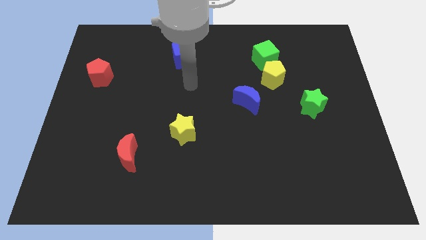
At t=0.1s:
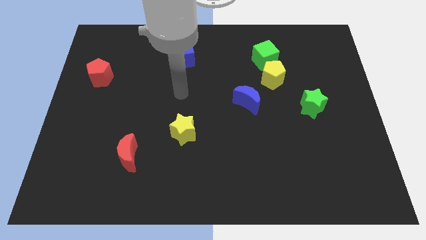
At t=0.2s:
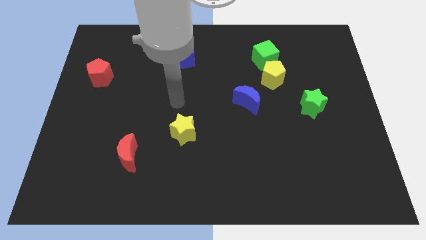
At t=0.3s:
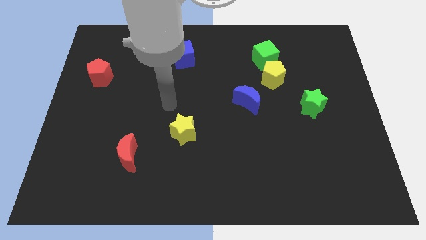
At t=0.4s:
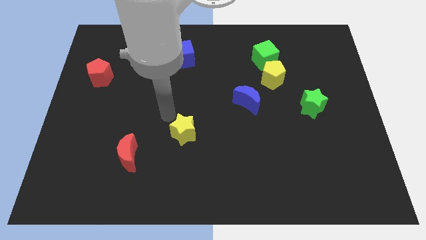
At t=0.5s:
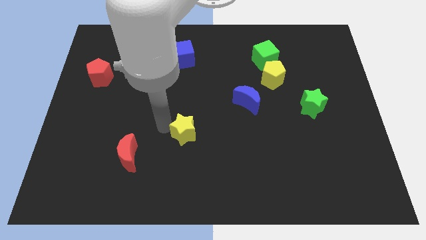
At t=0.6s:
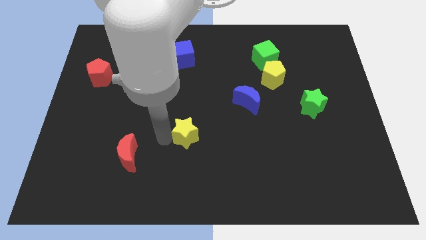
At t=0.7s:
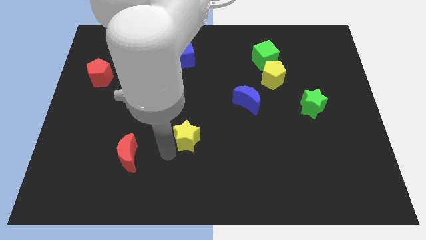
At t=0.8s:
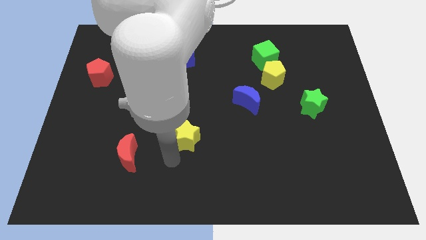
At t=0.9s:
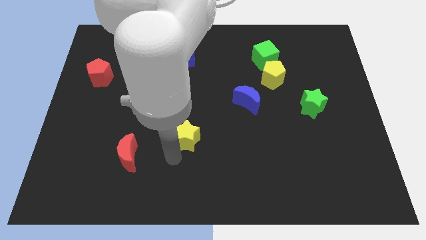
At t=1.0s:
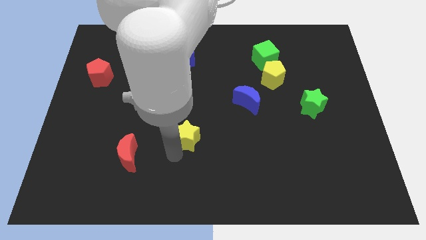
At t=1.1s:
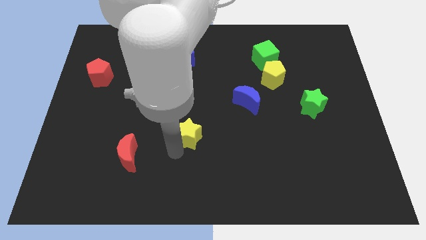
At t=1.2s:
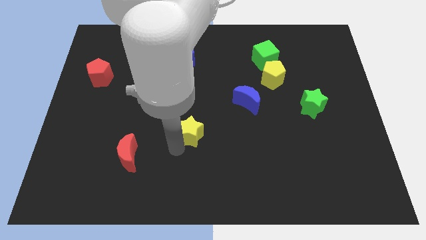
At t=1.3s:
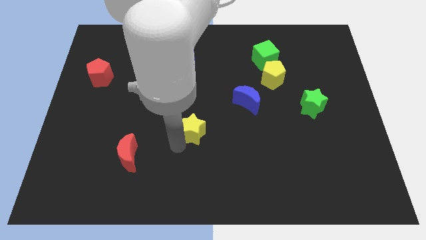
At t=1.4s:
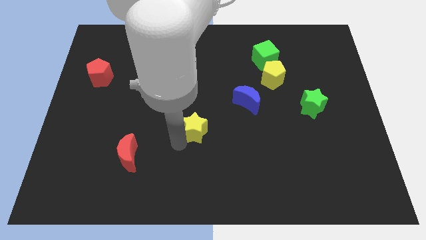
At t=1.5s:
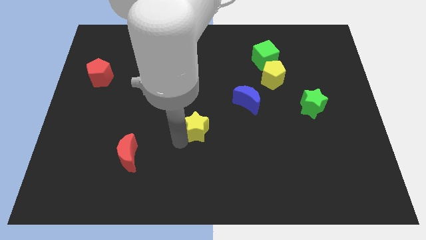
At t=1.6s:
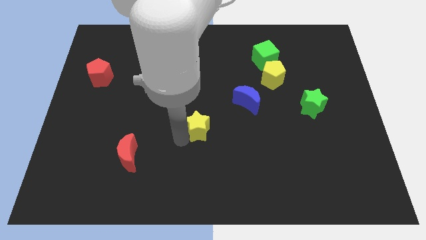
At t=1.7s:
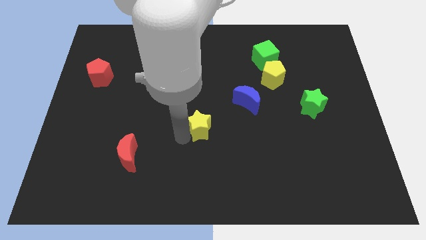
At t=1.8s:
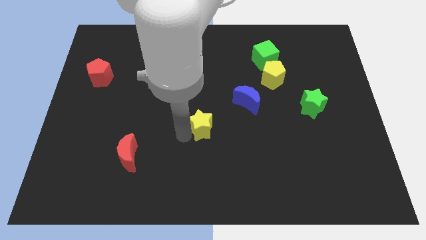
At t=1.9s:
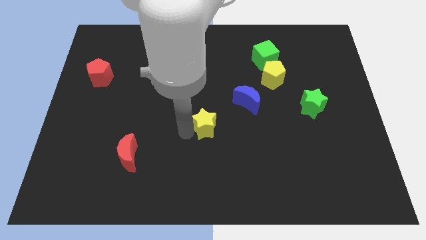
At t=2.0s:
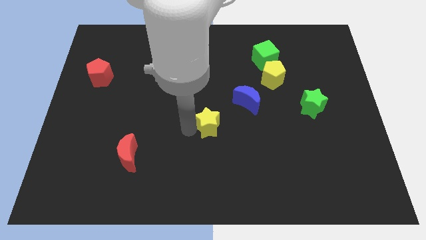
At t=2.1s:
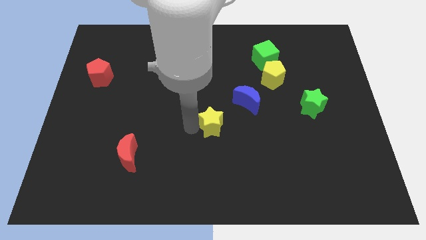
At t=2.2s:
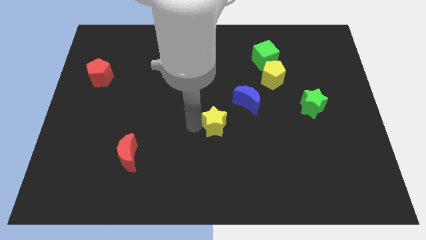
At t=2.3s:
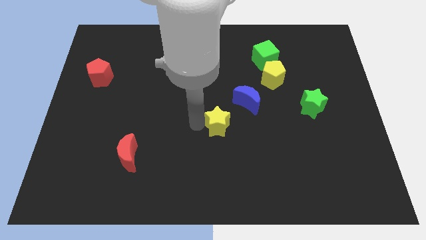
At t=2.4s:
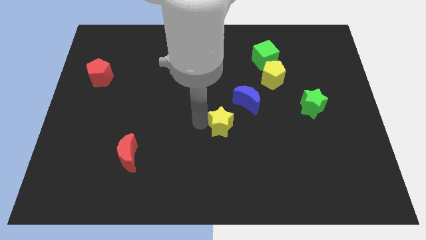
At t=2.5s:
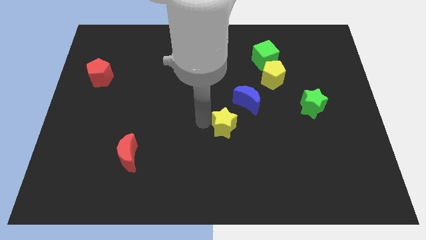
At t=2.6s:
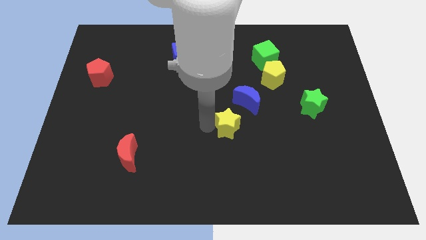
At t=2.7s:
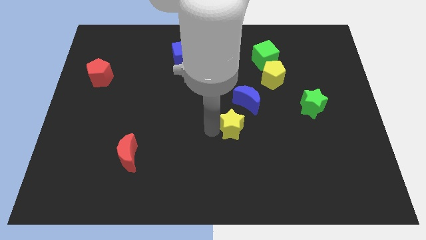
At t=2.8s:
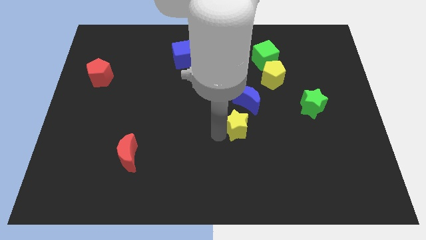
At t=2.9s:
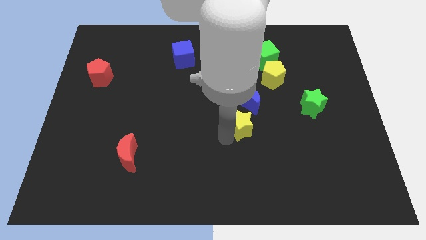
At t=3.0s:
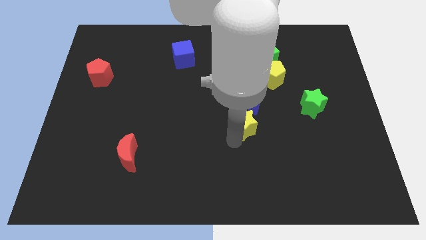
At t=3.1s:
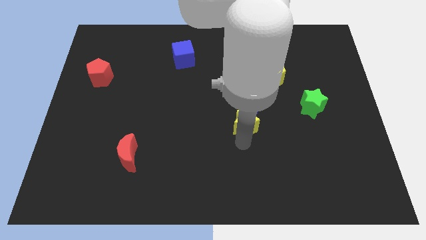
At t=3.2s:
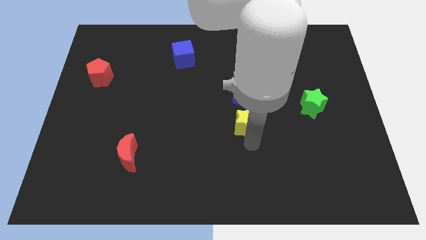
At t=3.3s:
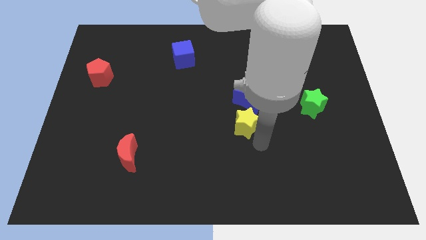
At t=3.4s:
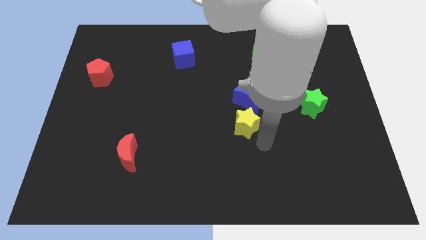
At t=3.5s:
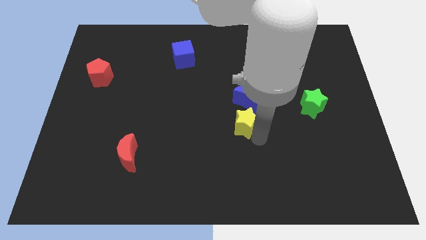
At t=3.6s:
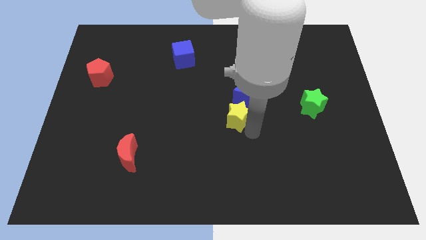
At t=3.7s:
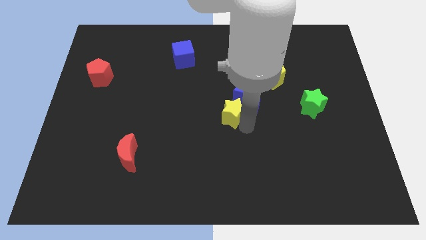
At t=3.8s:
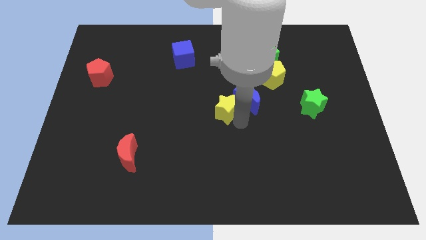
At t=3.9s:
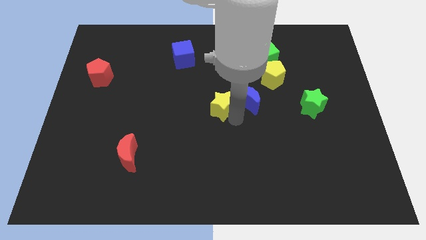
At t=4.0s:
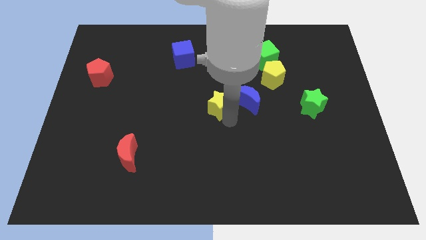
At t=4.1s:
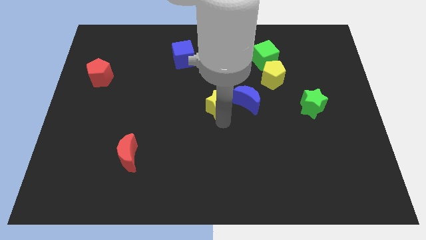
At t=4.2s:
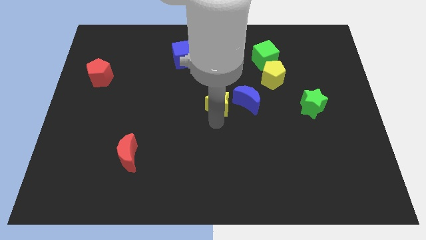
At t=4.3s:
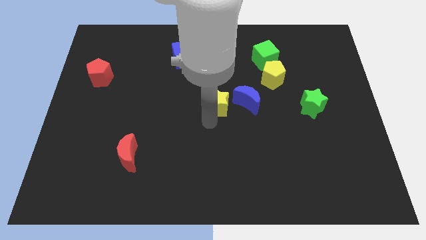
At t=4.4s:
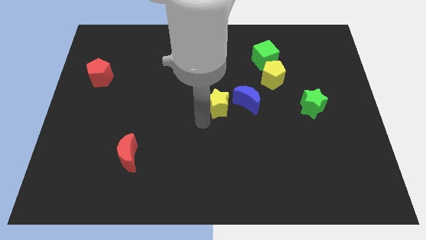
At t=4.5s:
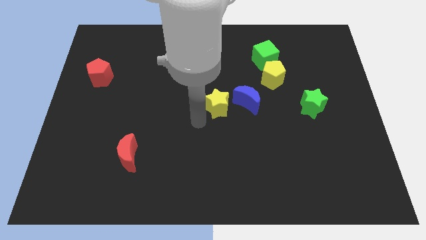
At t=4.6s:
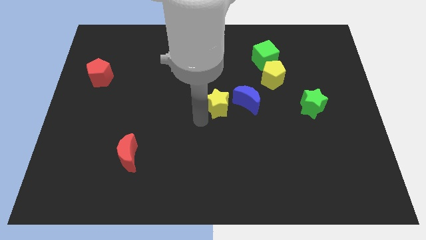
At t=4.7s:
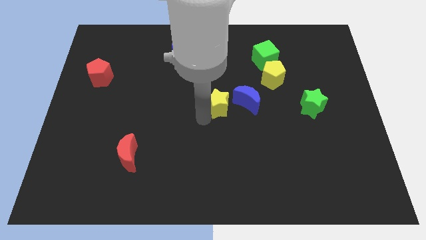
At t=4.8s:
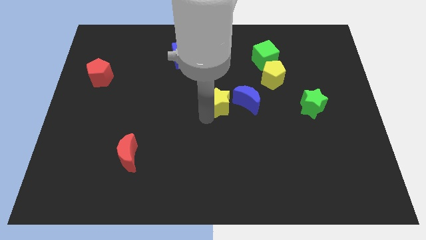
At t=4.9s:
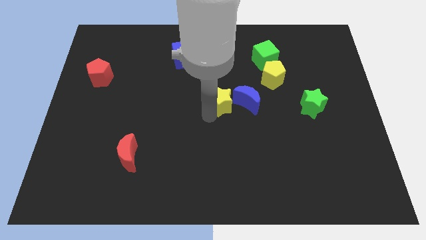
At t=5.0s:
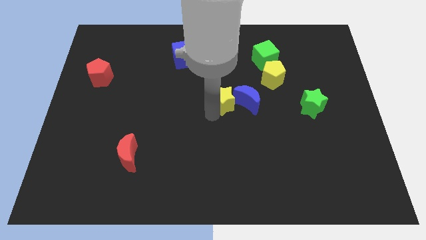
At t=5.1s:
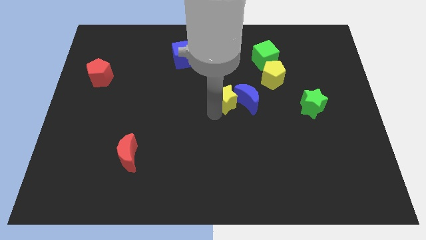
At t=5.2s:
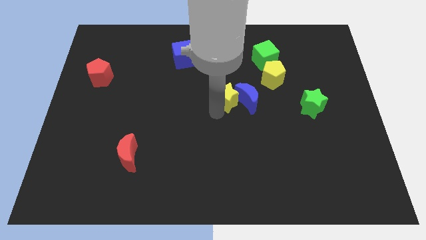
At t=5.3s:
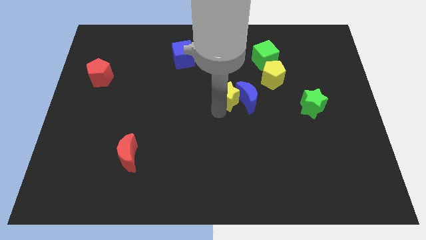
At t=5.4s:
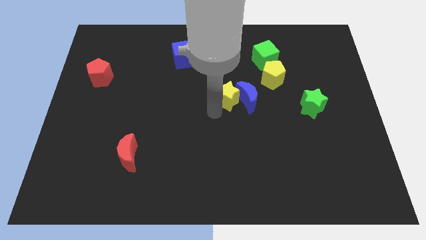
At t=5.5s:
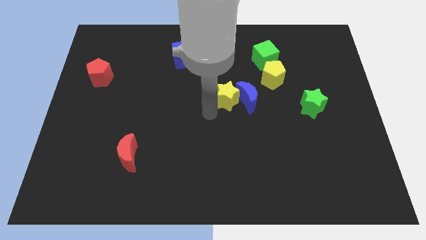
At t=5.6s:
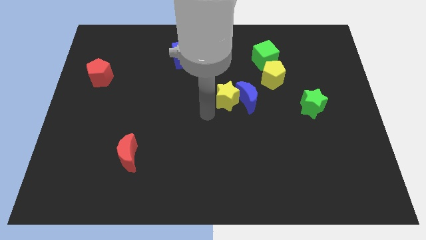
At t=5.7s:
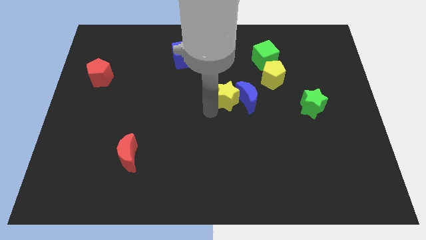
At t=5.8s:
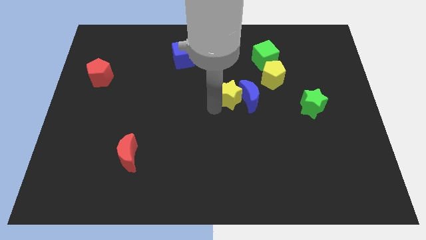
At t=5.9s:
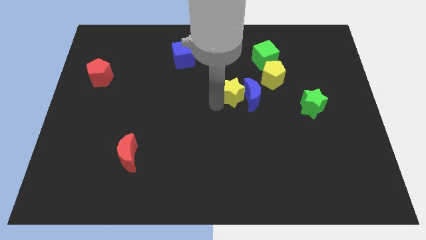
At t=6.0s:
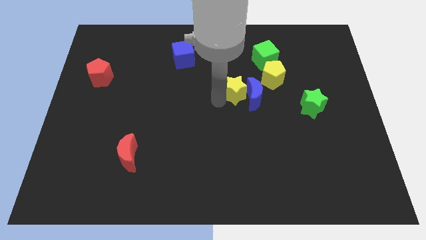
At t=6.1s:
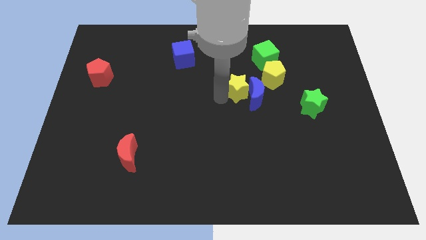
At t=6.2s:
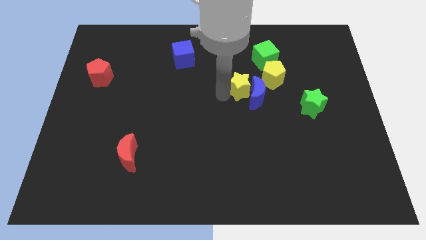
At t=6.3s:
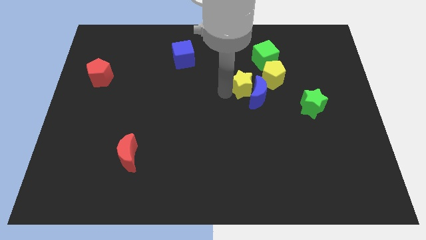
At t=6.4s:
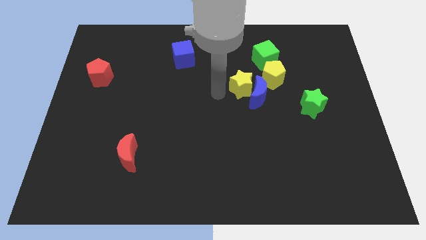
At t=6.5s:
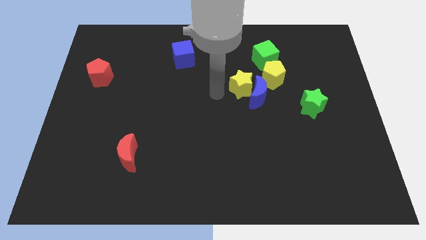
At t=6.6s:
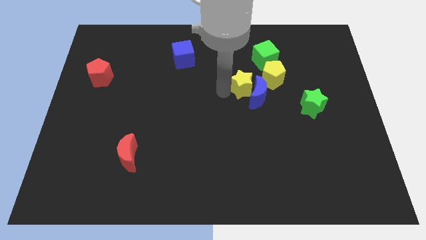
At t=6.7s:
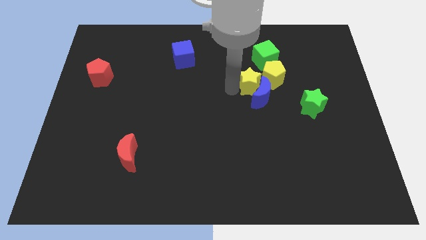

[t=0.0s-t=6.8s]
push the yellow star to the yellow pentagon

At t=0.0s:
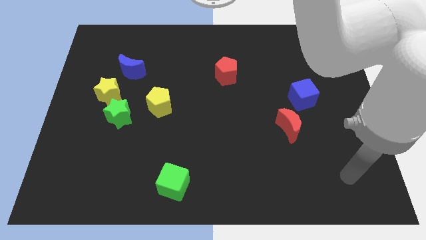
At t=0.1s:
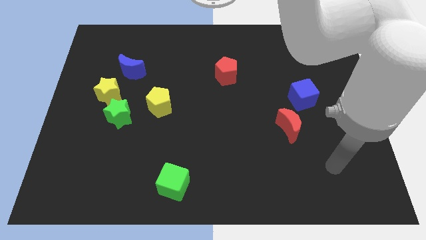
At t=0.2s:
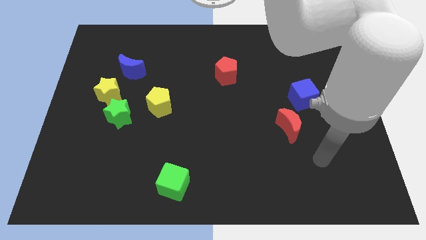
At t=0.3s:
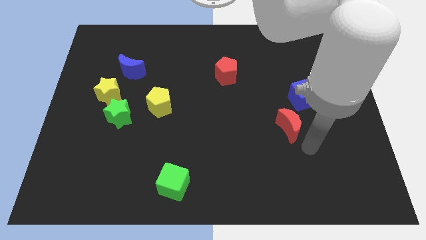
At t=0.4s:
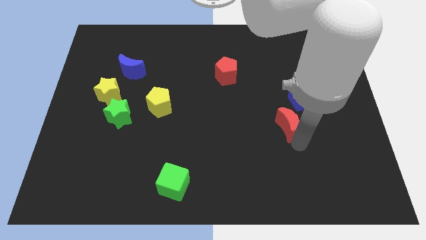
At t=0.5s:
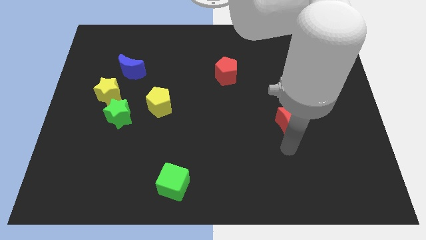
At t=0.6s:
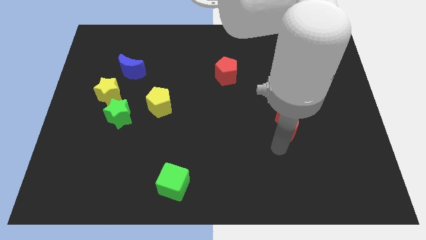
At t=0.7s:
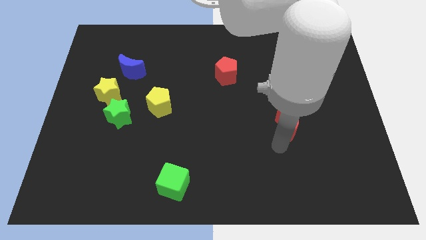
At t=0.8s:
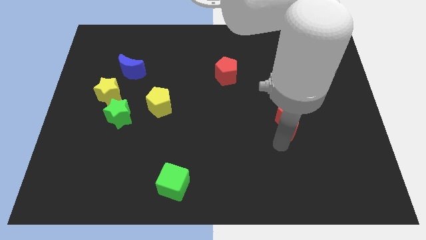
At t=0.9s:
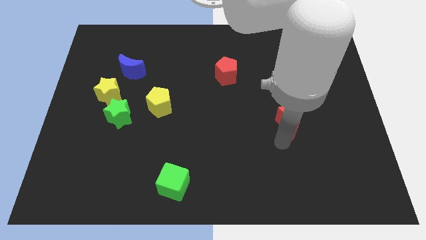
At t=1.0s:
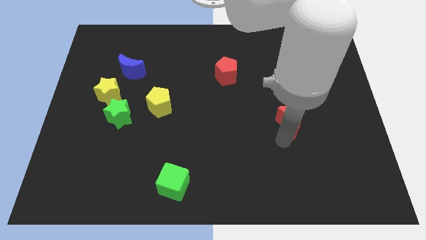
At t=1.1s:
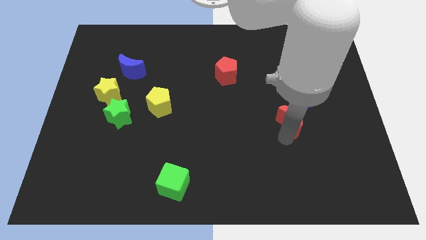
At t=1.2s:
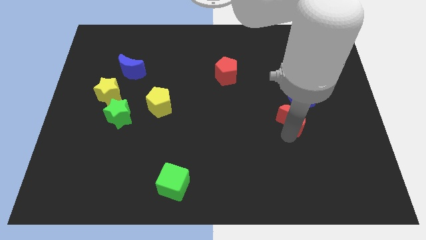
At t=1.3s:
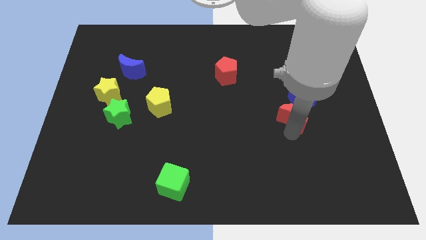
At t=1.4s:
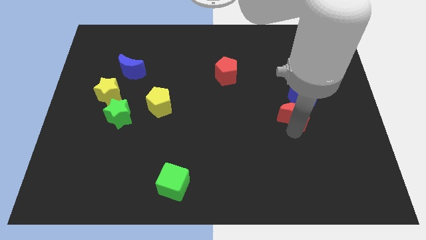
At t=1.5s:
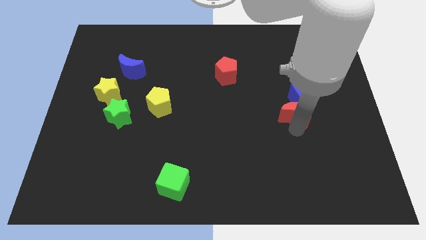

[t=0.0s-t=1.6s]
move the red moon to the blue cube
